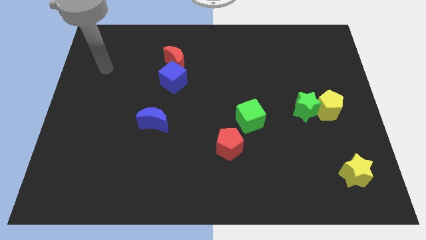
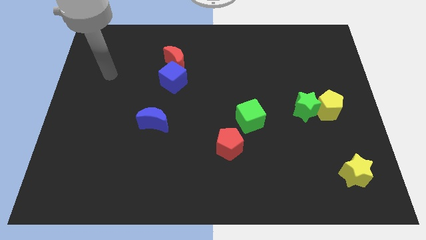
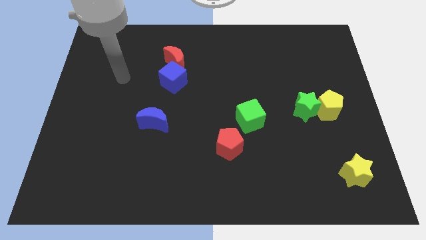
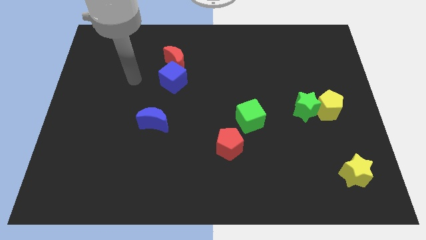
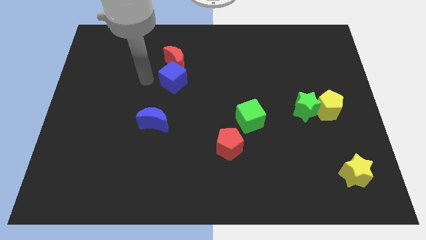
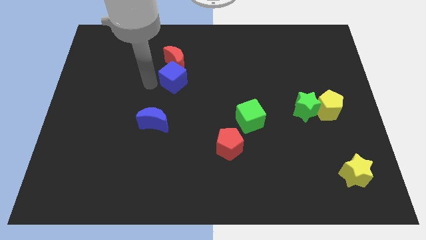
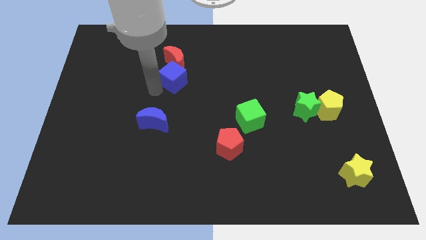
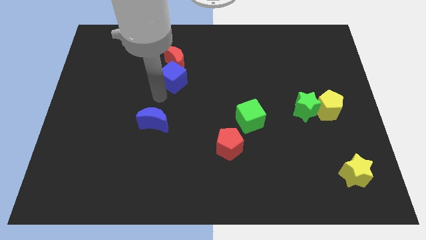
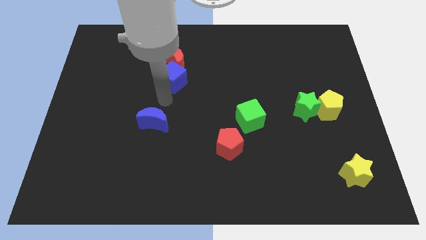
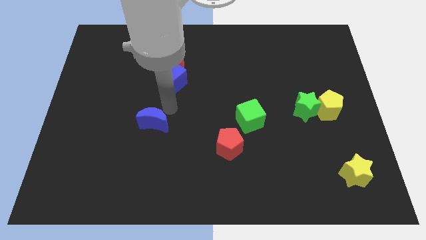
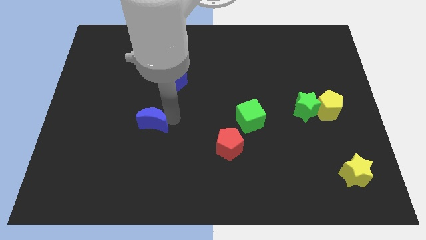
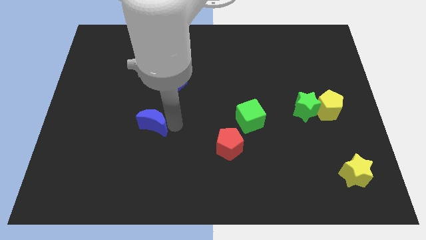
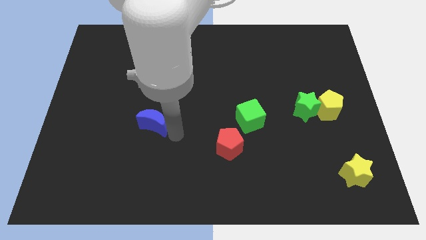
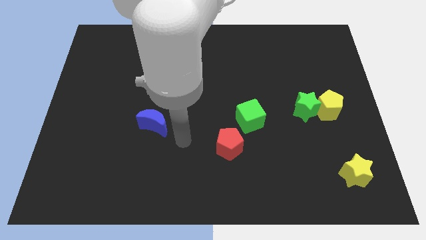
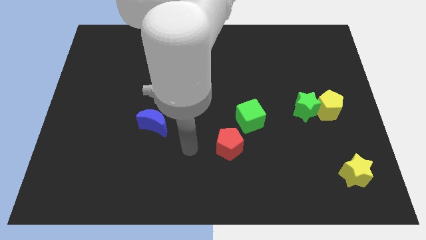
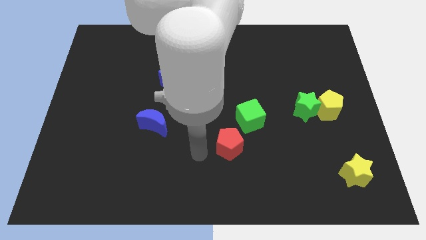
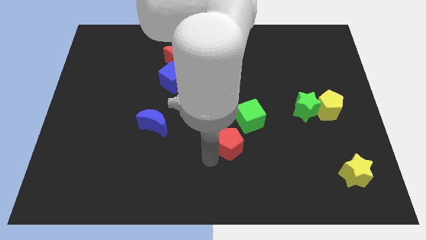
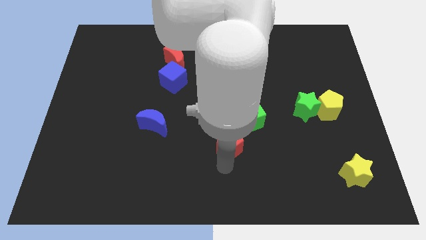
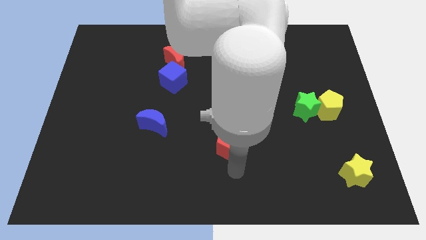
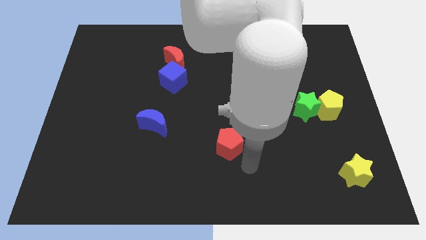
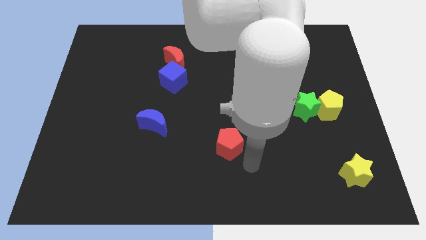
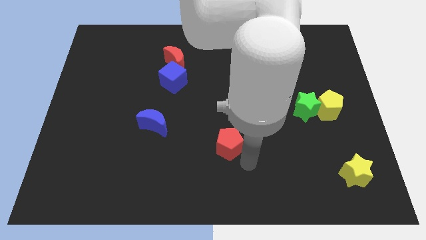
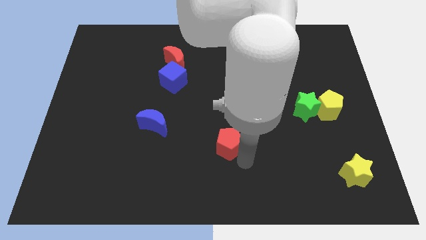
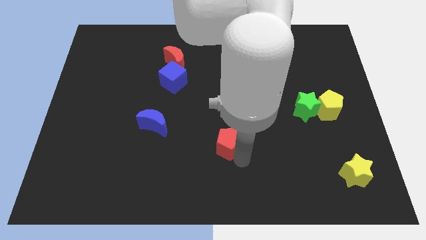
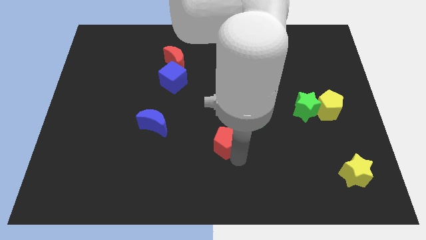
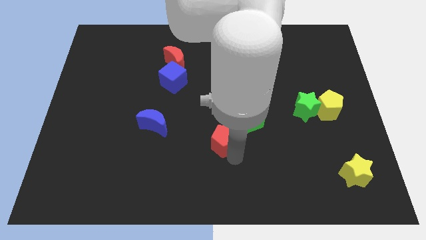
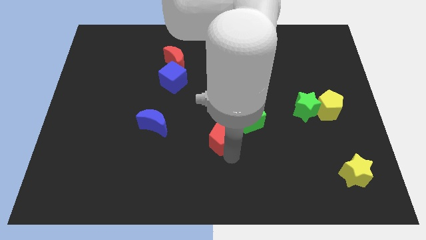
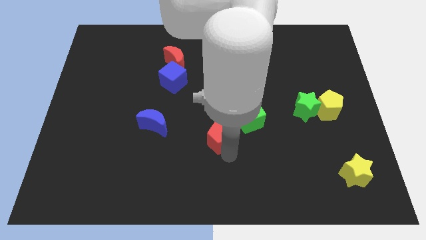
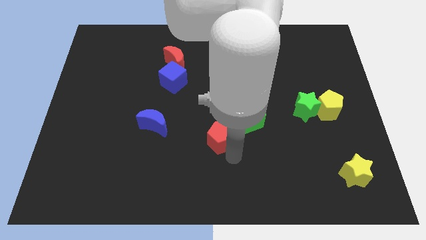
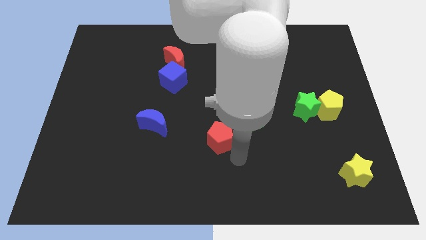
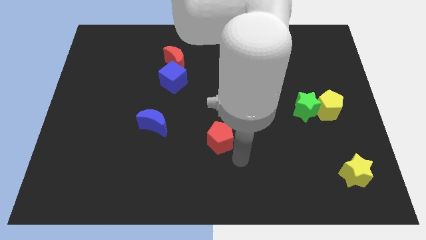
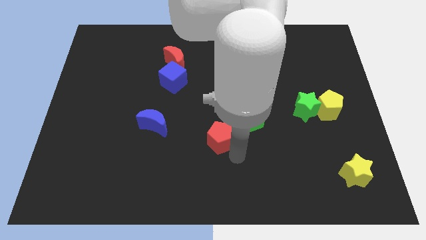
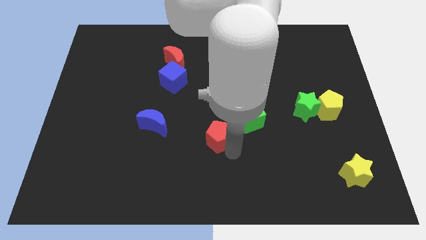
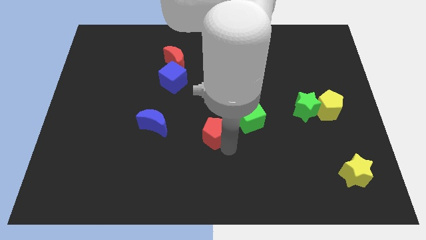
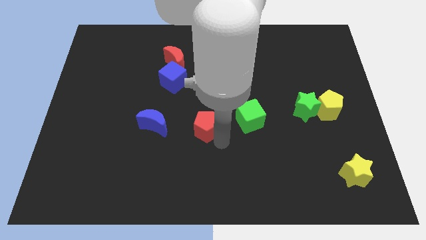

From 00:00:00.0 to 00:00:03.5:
move the red pentagon upwards and left slightly

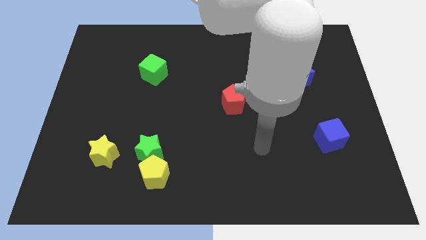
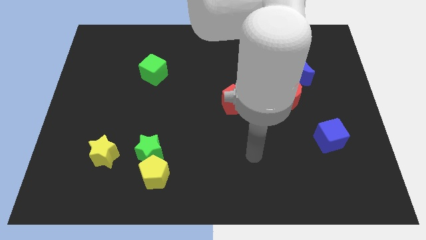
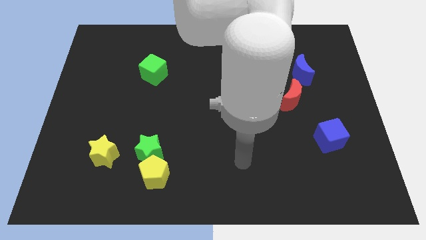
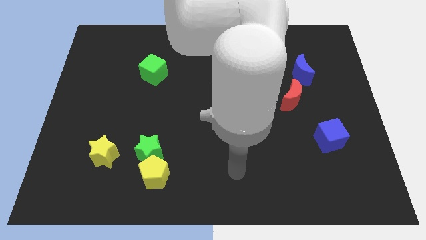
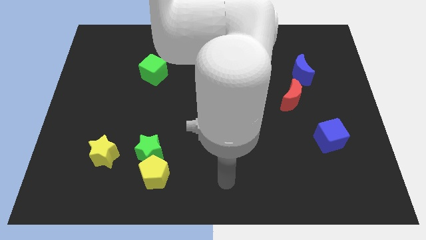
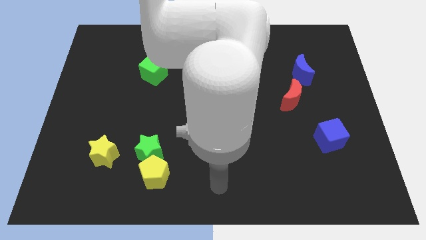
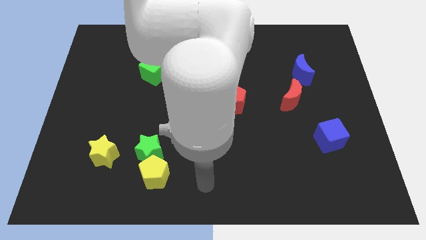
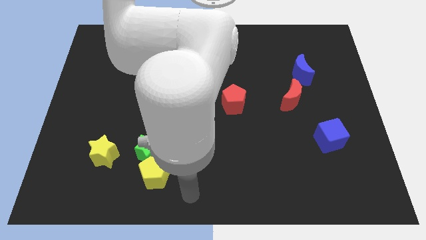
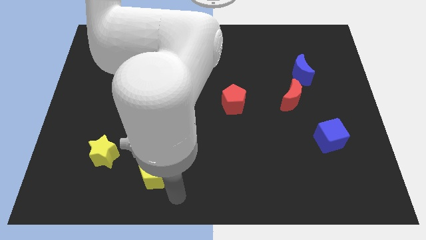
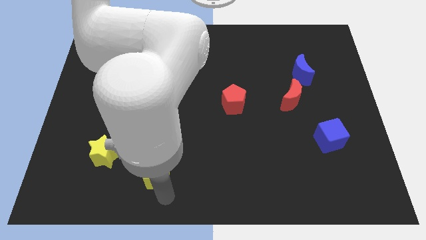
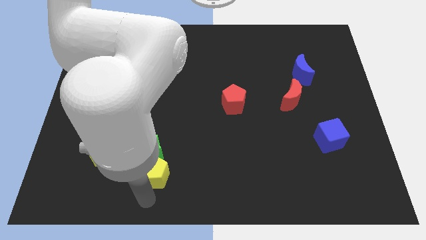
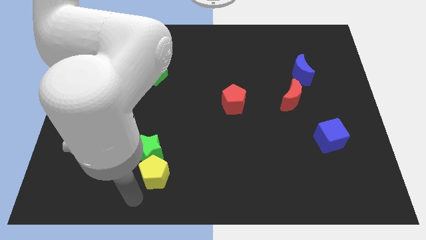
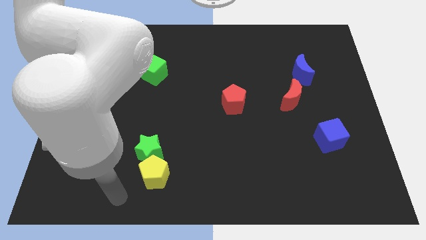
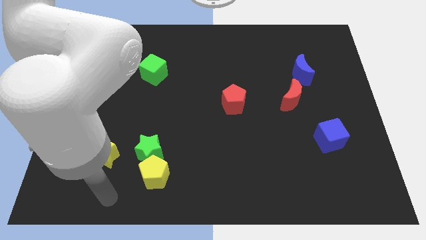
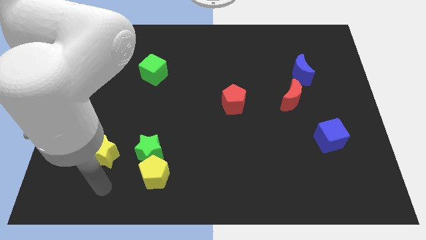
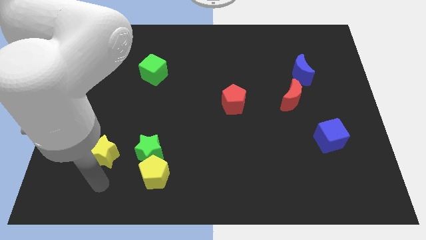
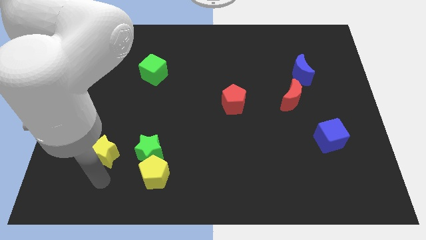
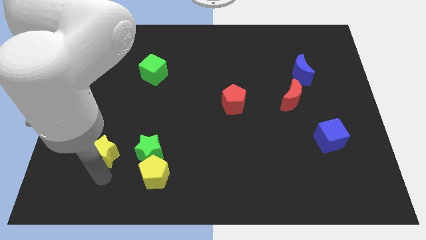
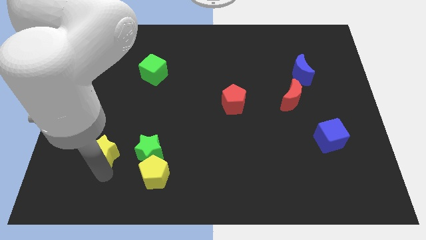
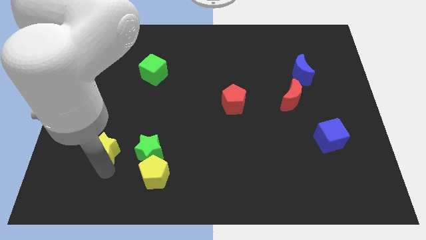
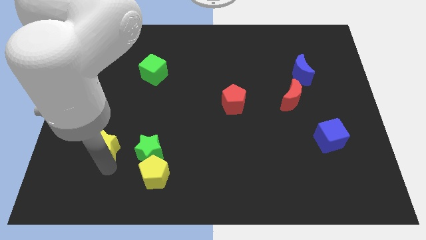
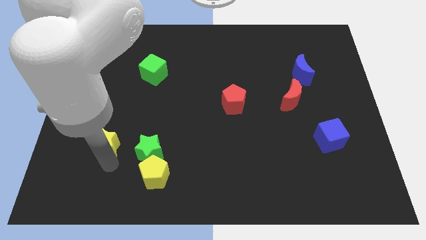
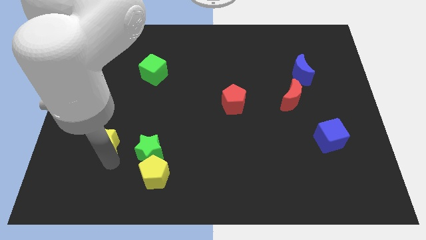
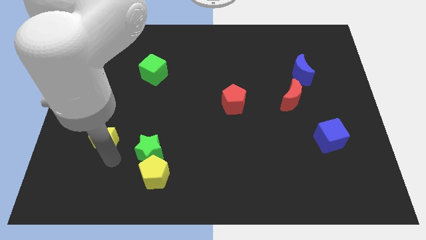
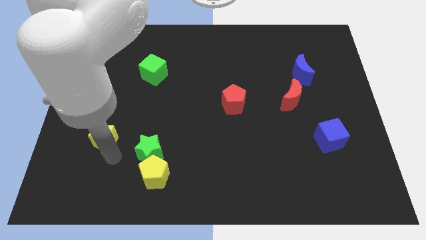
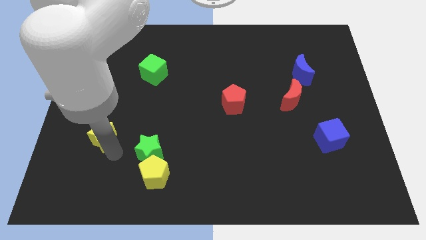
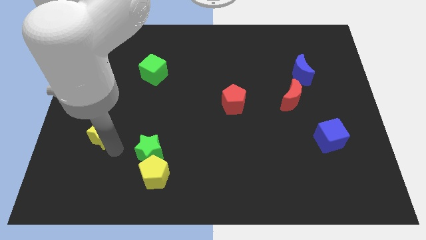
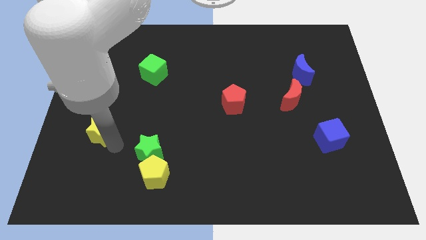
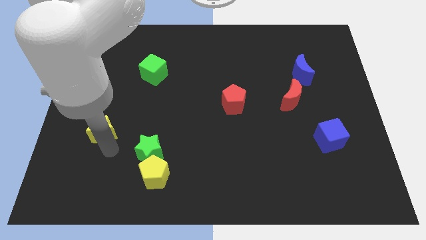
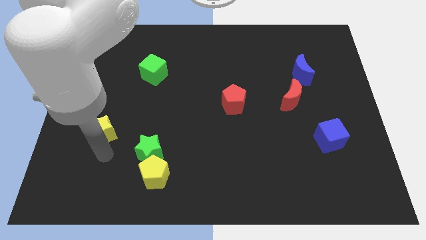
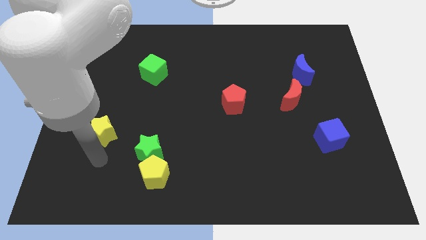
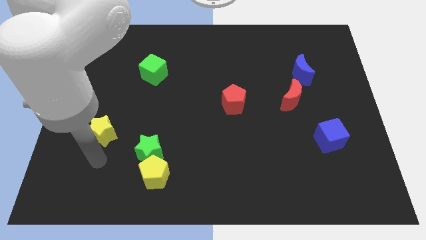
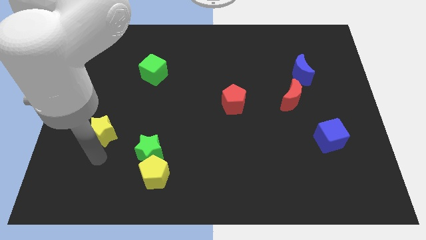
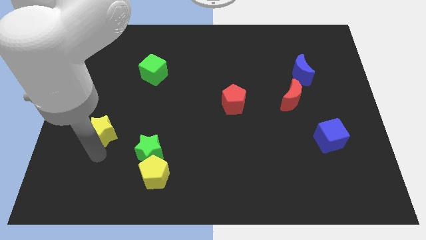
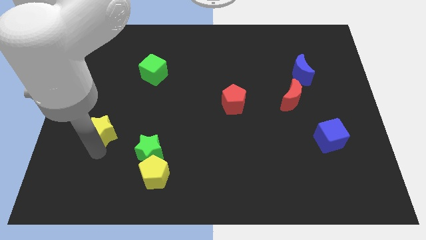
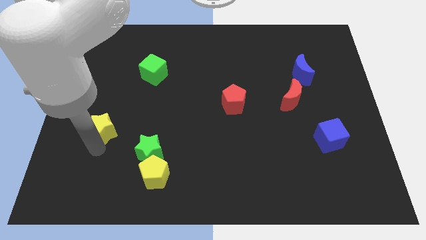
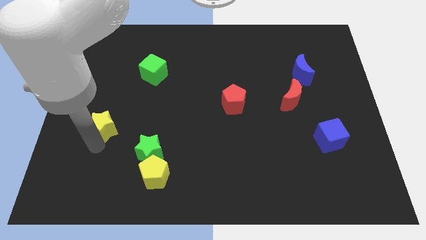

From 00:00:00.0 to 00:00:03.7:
move the yellow star upwards a little

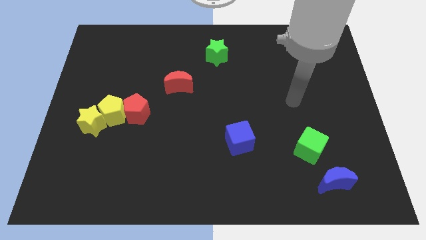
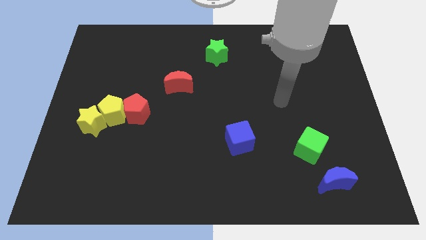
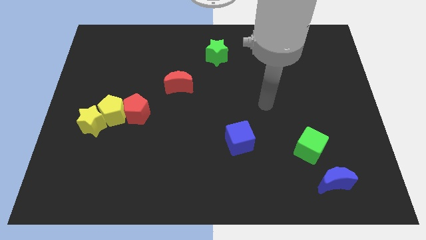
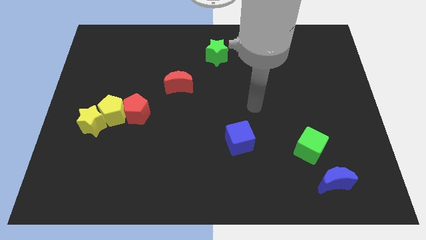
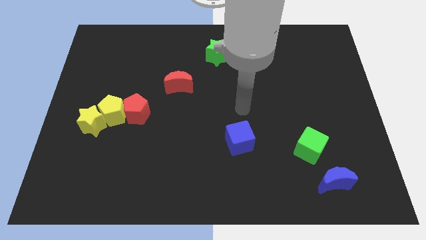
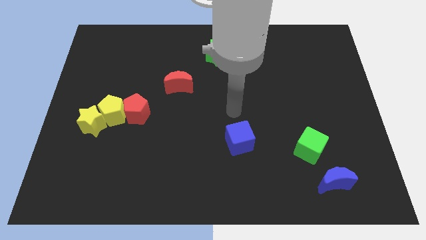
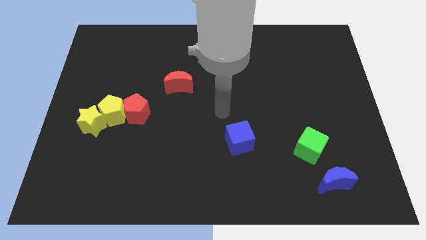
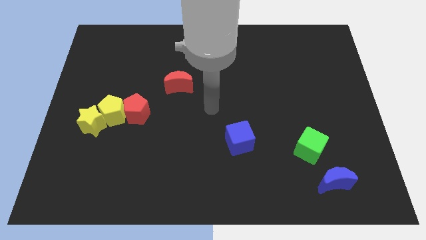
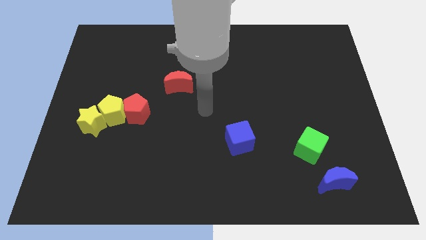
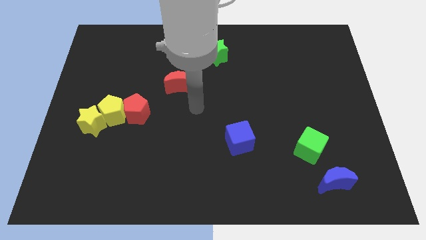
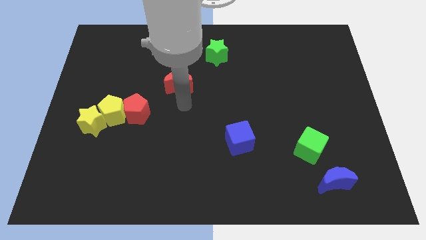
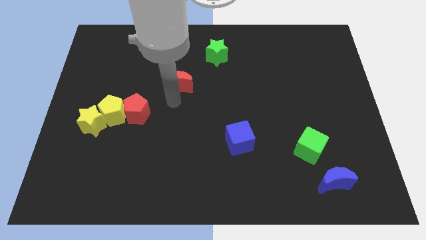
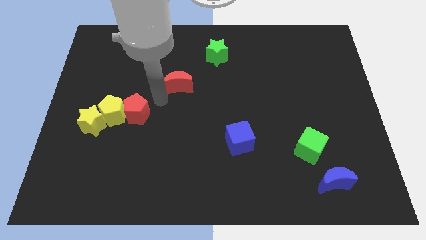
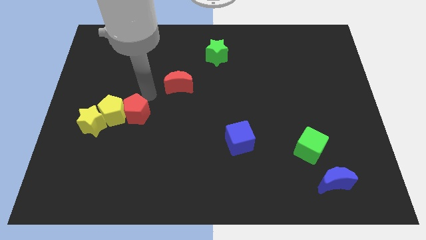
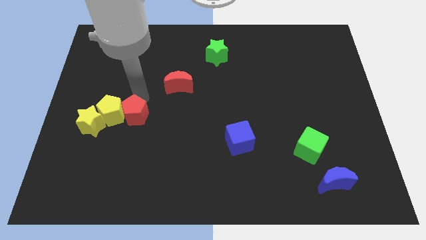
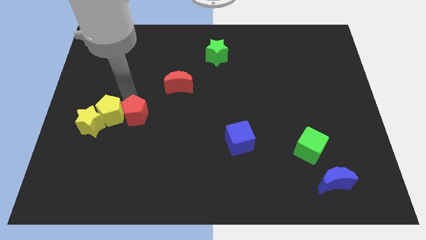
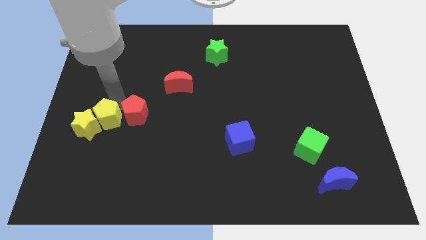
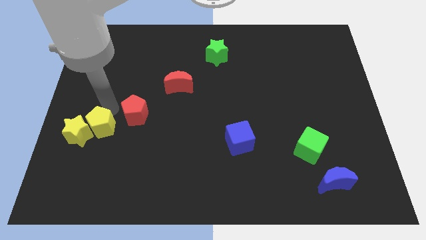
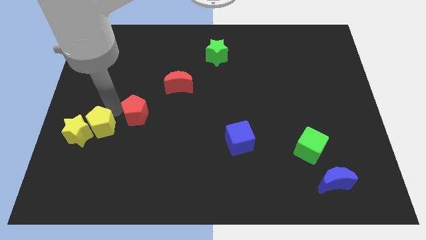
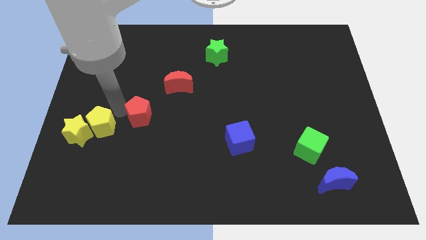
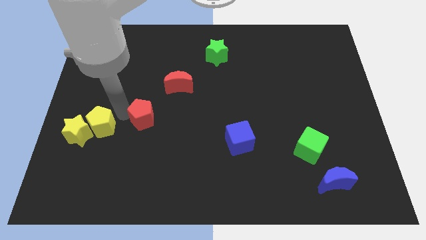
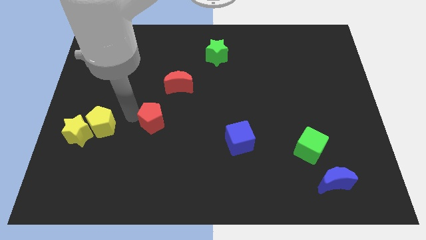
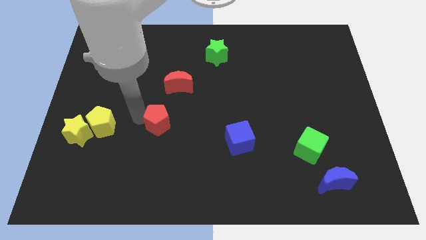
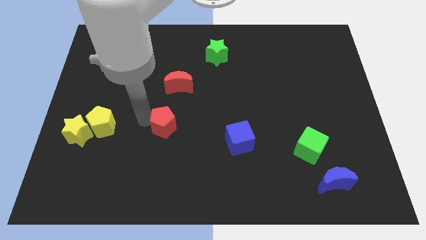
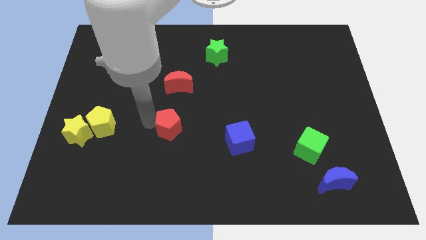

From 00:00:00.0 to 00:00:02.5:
push the red pentagon a little bit to the right
